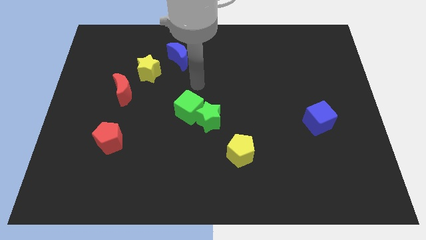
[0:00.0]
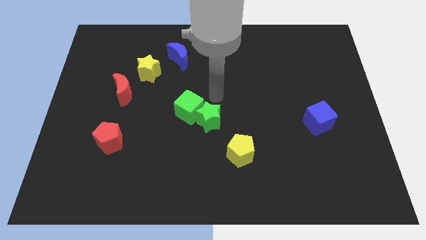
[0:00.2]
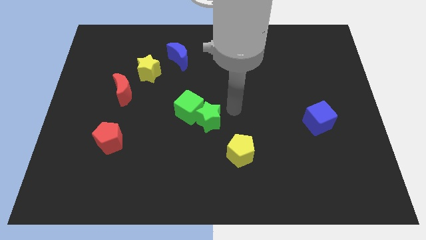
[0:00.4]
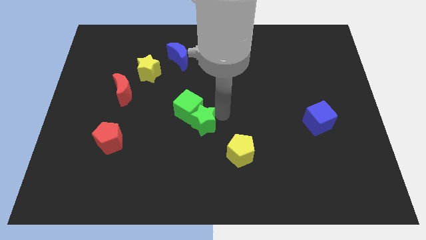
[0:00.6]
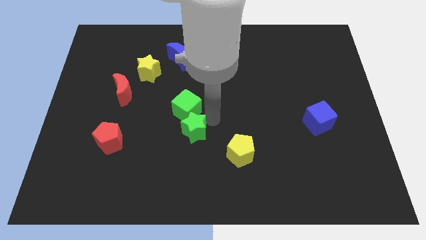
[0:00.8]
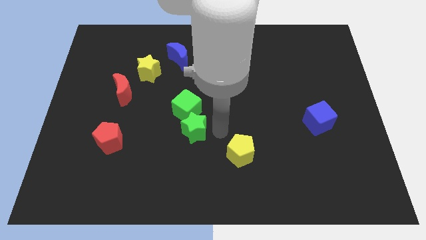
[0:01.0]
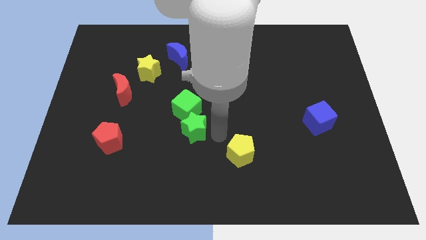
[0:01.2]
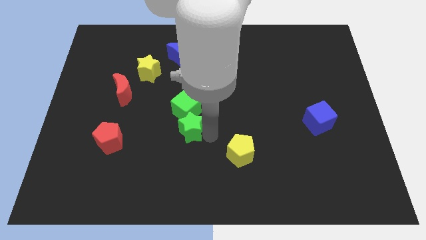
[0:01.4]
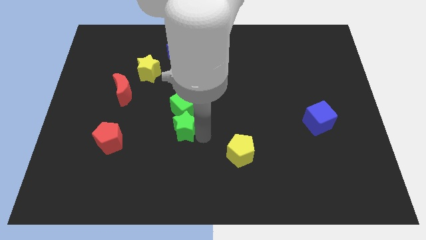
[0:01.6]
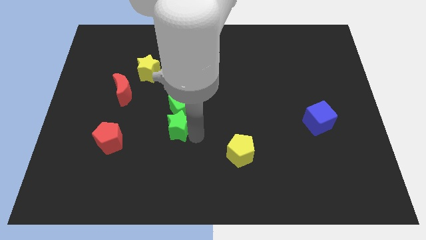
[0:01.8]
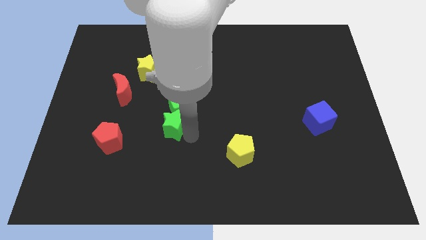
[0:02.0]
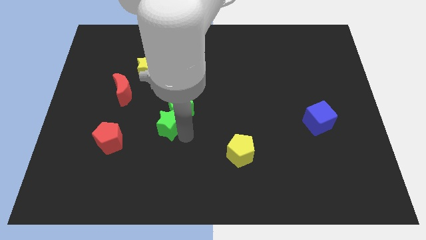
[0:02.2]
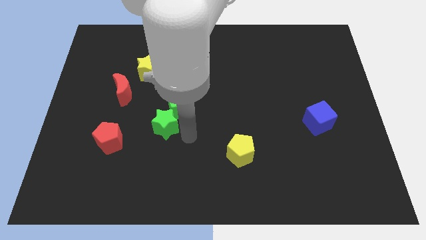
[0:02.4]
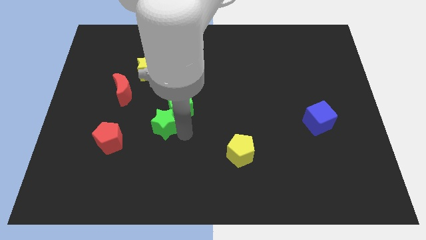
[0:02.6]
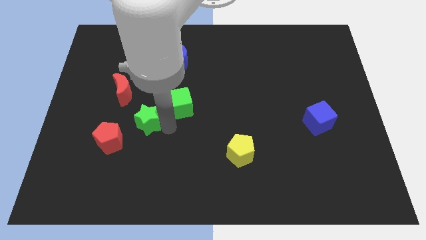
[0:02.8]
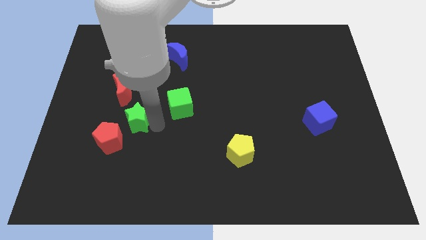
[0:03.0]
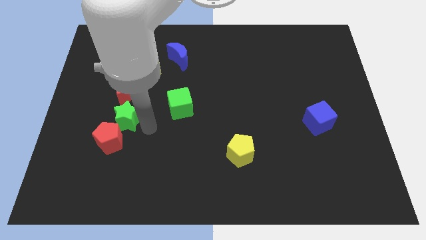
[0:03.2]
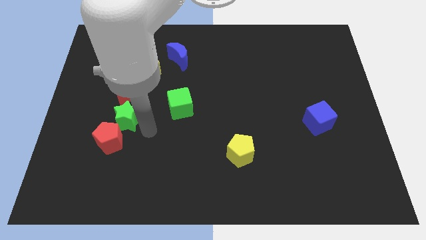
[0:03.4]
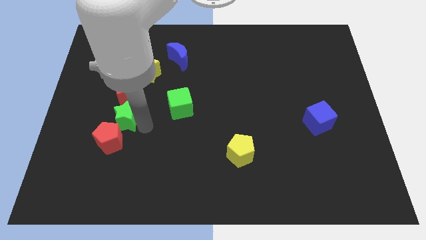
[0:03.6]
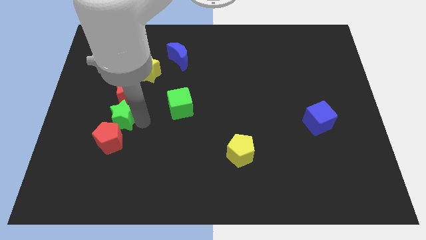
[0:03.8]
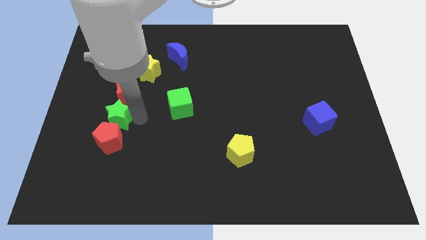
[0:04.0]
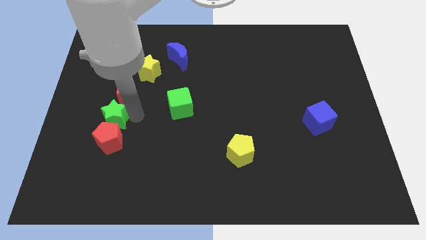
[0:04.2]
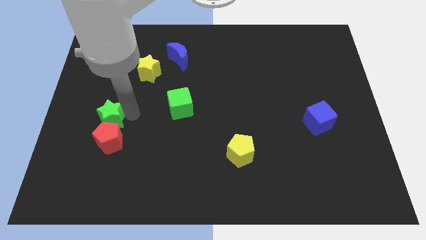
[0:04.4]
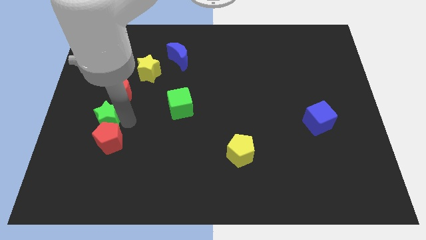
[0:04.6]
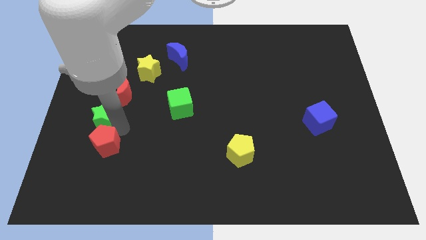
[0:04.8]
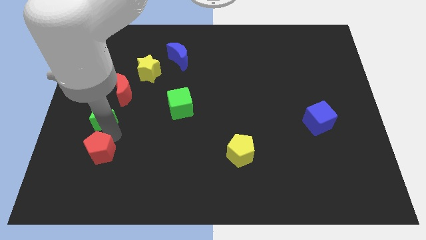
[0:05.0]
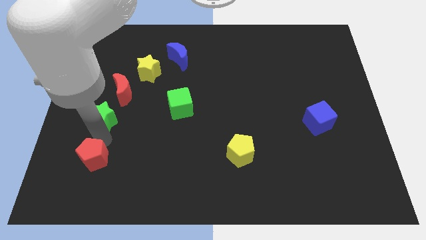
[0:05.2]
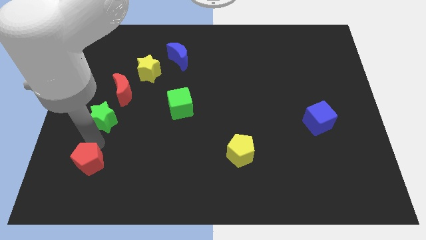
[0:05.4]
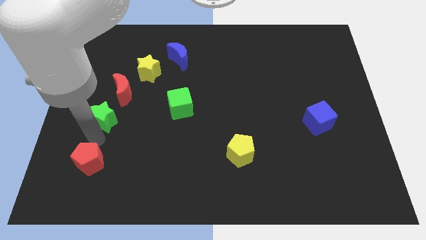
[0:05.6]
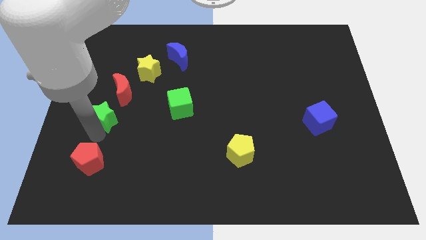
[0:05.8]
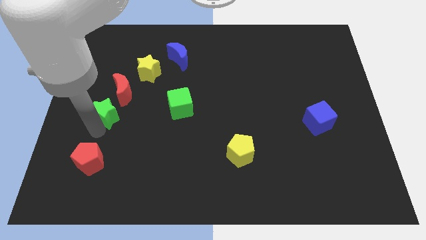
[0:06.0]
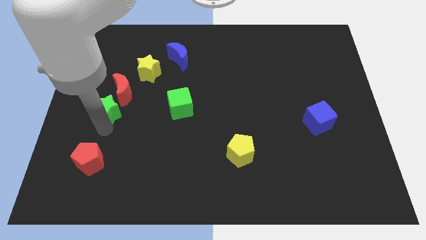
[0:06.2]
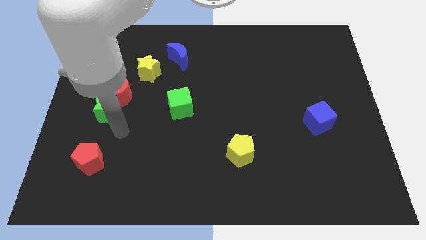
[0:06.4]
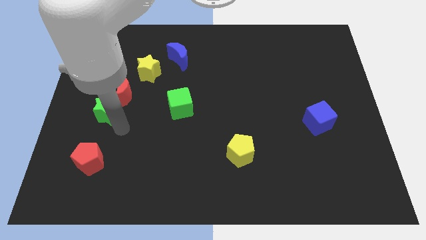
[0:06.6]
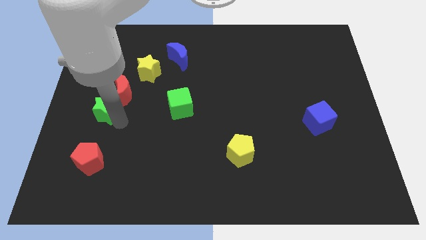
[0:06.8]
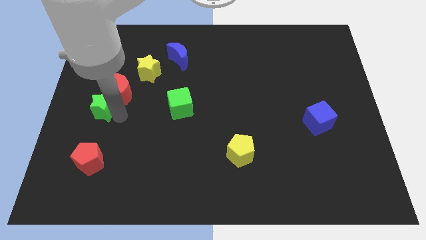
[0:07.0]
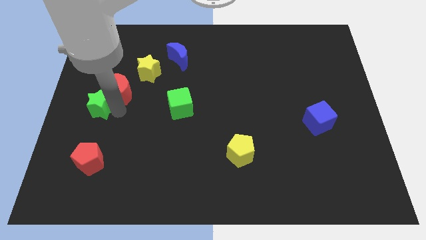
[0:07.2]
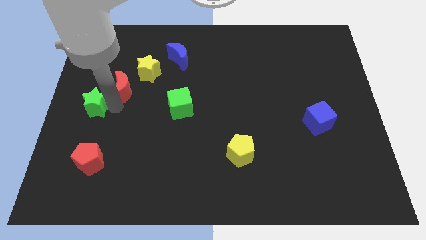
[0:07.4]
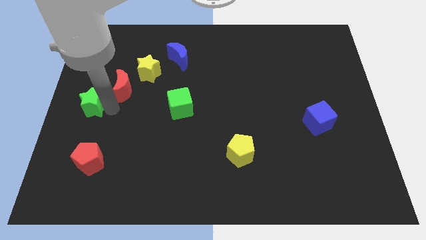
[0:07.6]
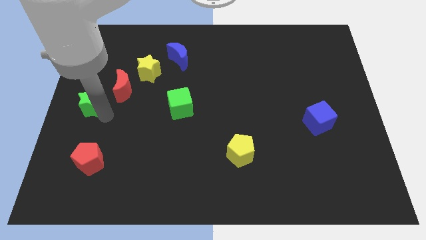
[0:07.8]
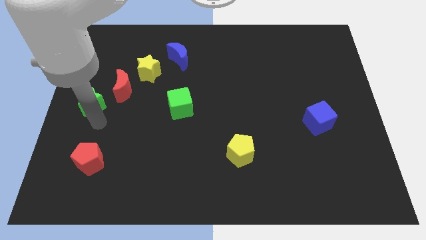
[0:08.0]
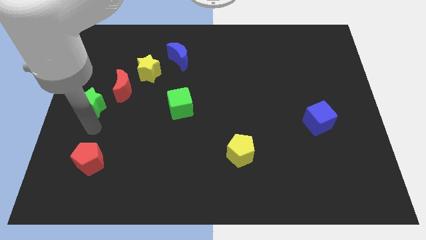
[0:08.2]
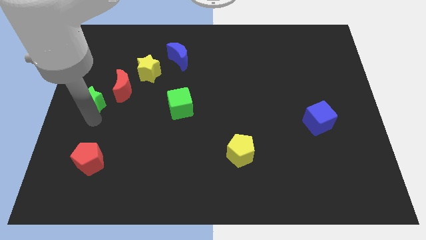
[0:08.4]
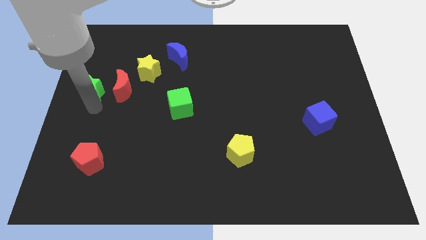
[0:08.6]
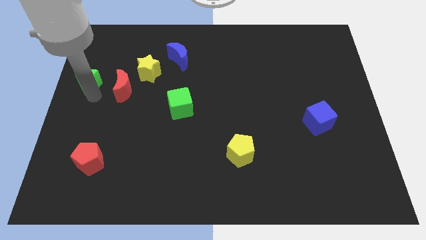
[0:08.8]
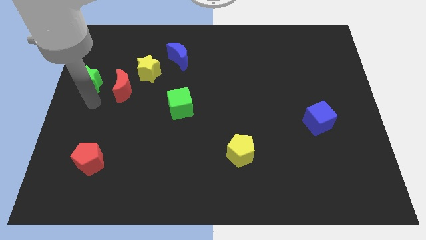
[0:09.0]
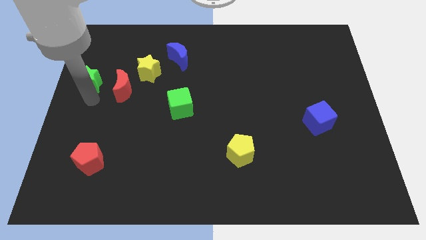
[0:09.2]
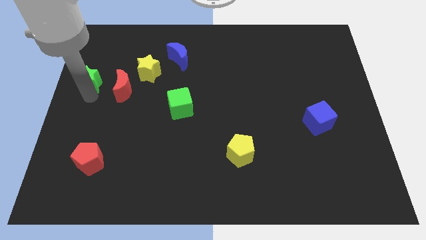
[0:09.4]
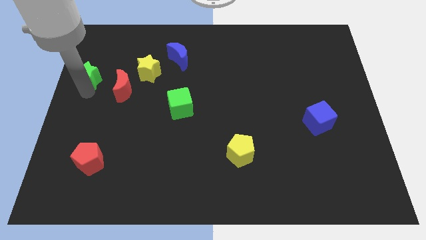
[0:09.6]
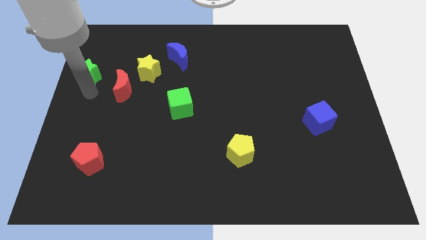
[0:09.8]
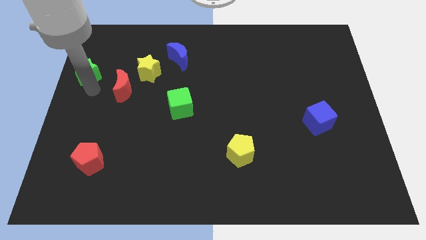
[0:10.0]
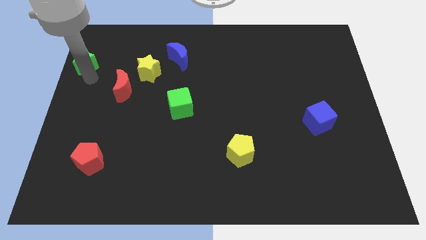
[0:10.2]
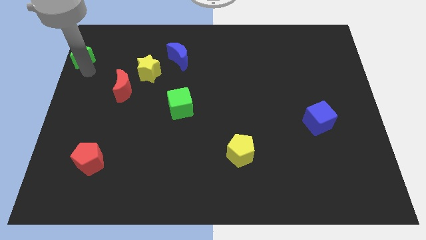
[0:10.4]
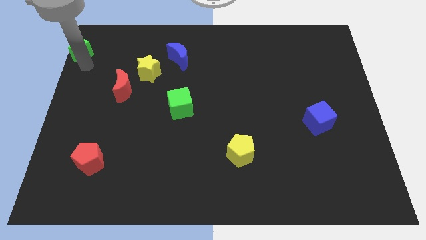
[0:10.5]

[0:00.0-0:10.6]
move the green star to the top left corner

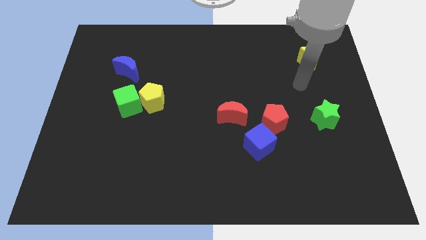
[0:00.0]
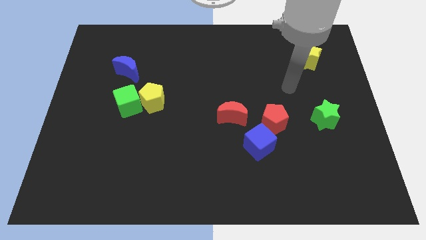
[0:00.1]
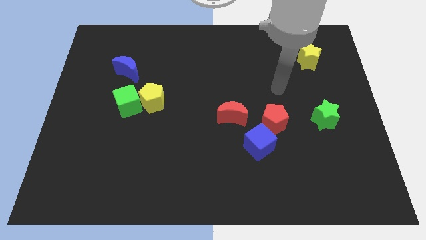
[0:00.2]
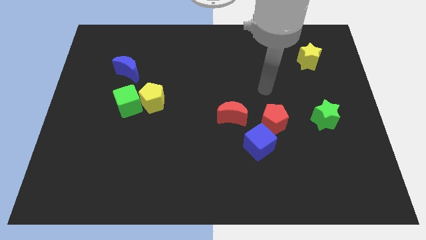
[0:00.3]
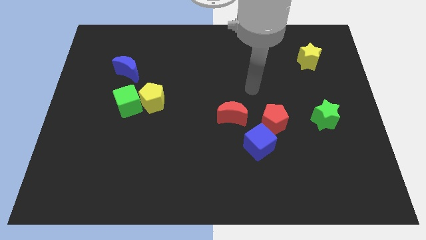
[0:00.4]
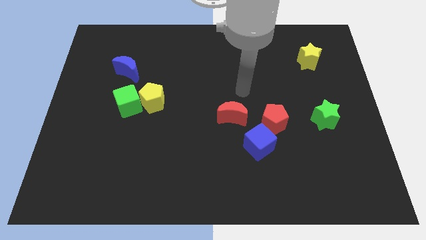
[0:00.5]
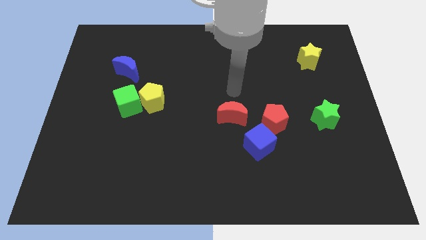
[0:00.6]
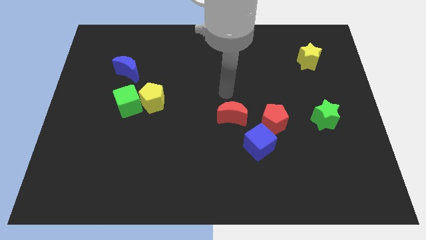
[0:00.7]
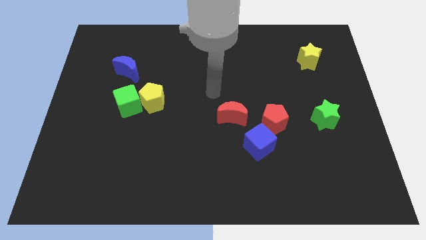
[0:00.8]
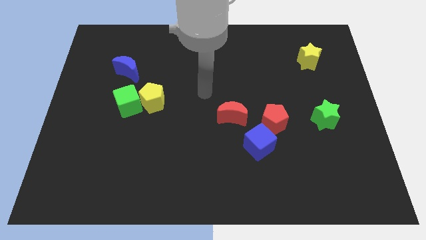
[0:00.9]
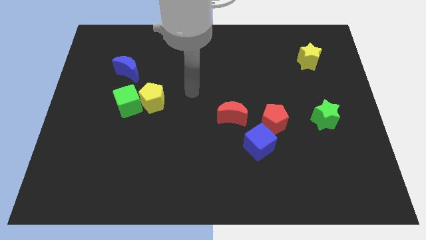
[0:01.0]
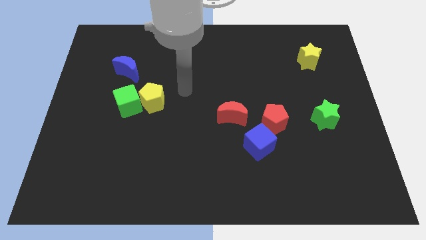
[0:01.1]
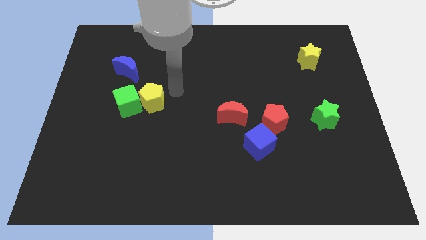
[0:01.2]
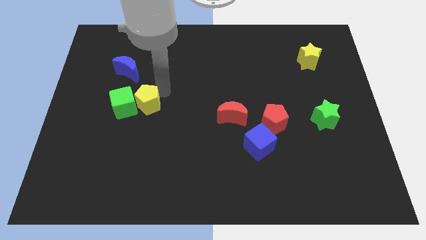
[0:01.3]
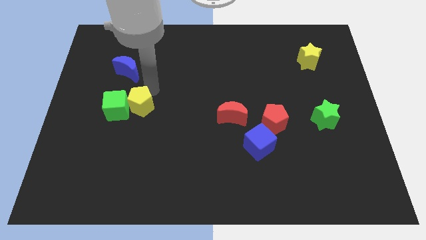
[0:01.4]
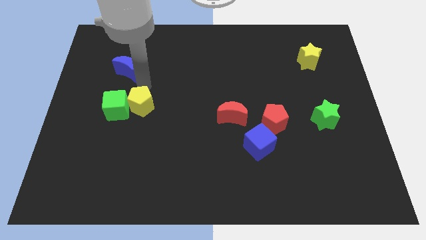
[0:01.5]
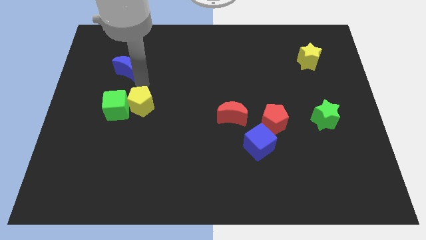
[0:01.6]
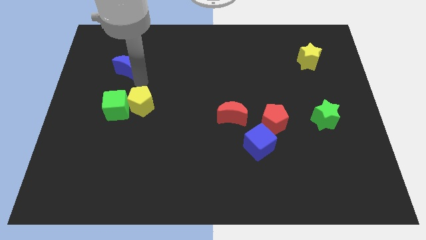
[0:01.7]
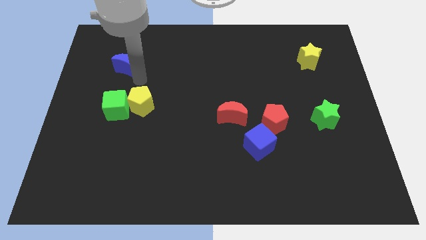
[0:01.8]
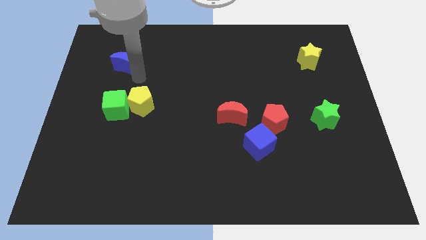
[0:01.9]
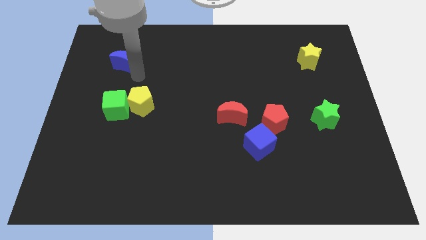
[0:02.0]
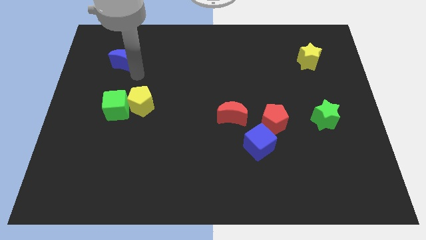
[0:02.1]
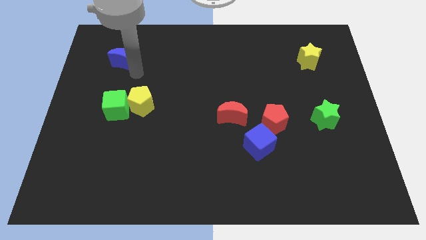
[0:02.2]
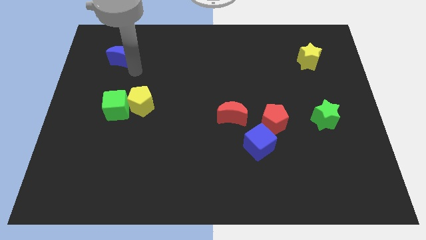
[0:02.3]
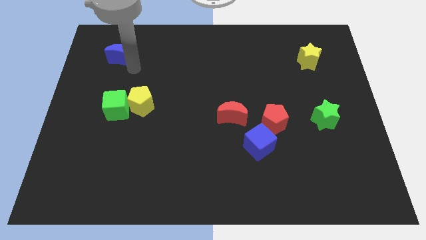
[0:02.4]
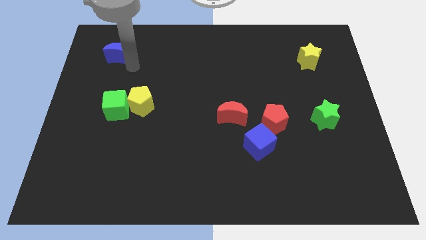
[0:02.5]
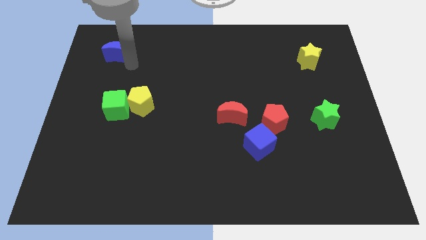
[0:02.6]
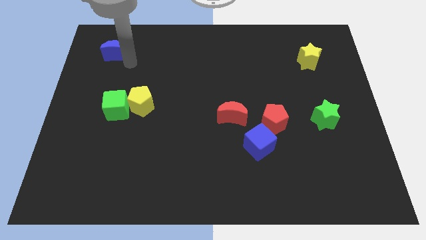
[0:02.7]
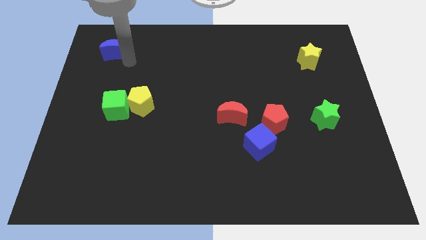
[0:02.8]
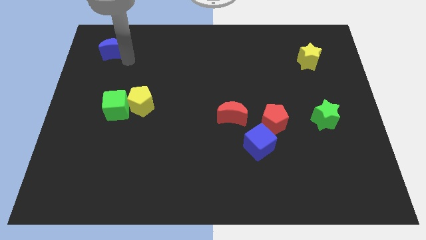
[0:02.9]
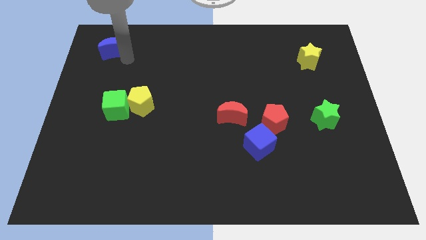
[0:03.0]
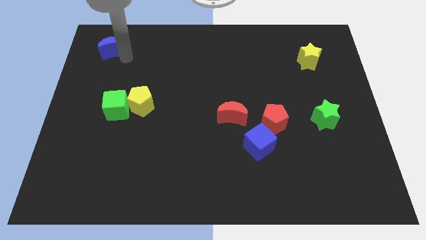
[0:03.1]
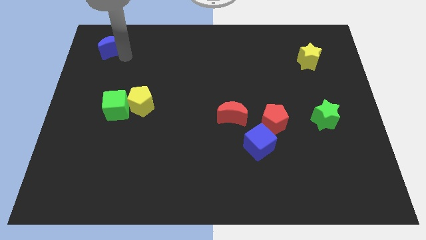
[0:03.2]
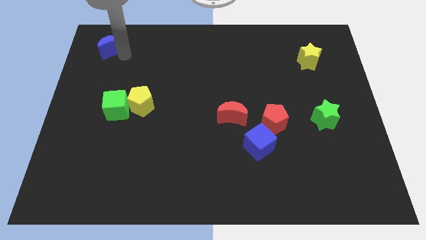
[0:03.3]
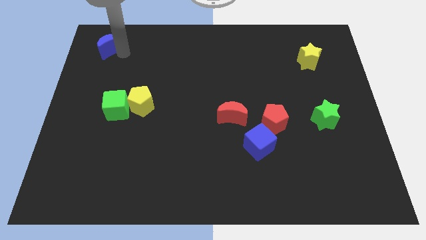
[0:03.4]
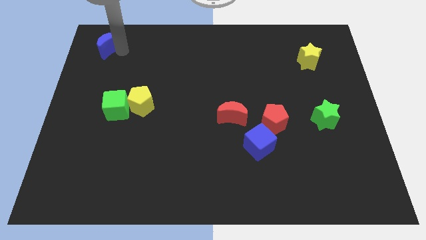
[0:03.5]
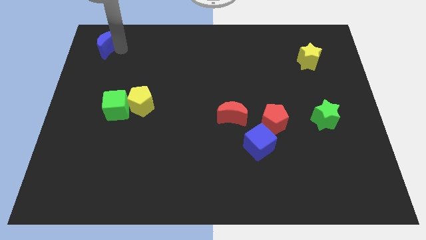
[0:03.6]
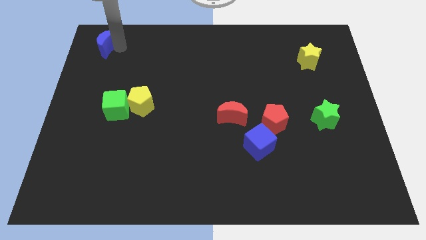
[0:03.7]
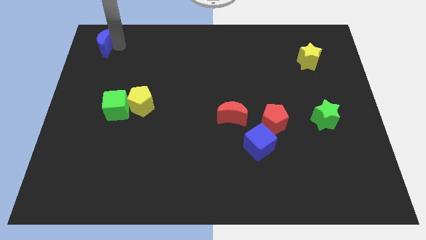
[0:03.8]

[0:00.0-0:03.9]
slide the blue moon to the top left corner
